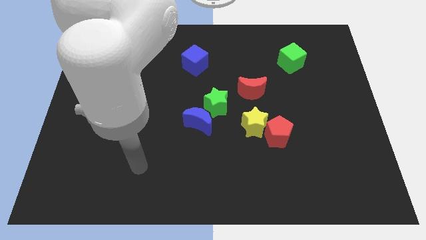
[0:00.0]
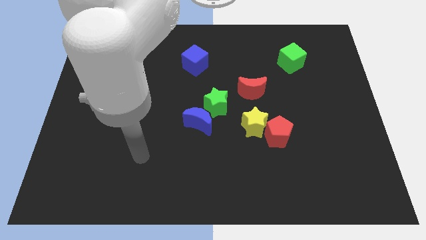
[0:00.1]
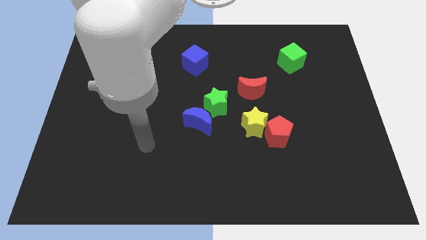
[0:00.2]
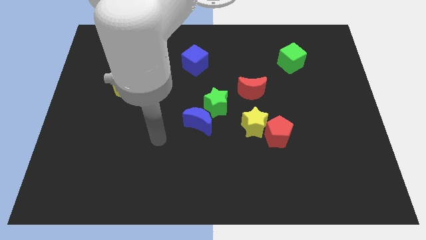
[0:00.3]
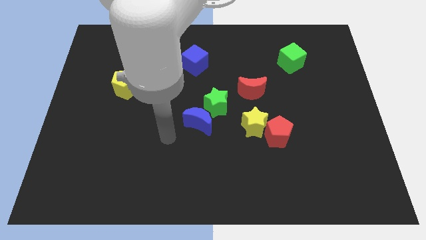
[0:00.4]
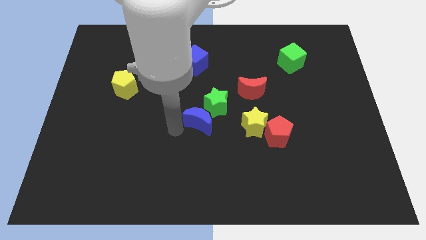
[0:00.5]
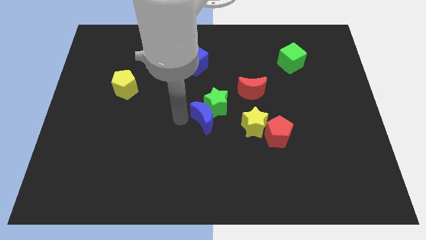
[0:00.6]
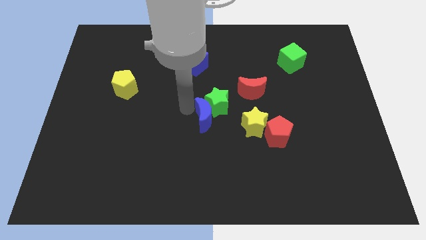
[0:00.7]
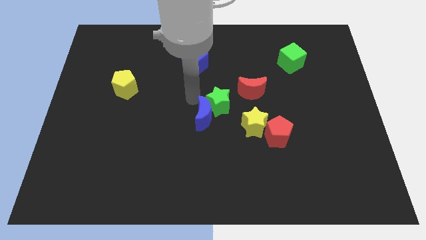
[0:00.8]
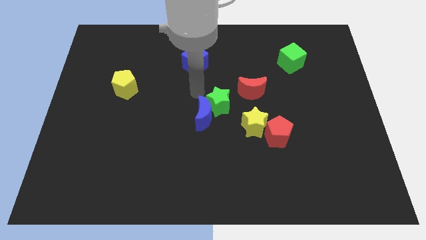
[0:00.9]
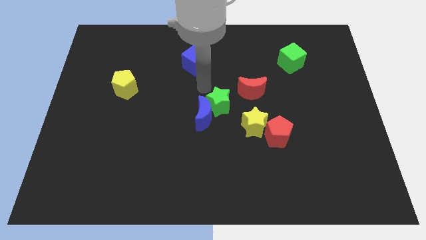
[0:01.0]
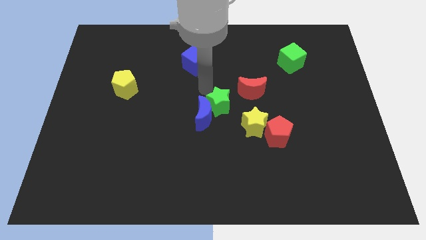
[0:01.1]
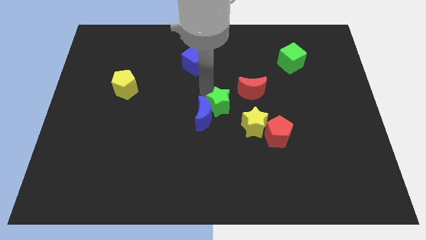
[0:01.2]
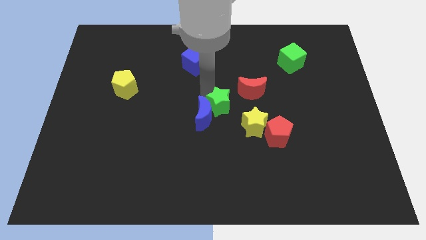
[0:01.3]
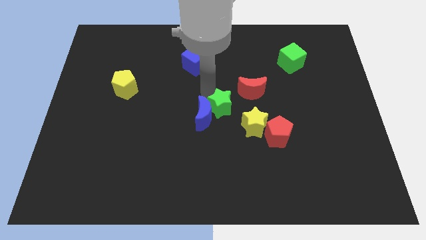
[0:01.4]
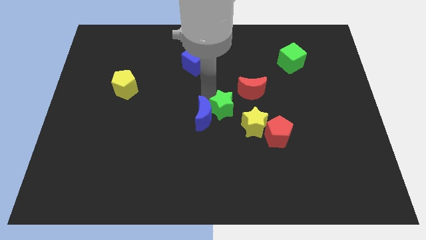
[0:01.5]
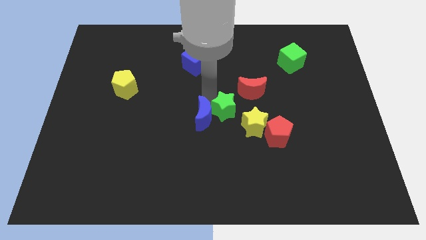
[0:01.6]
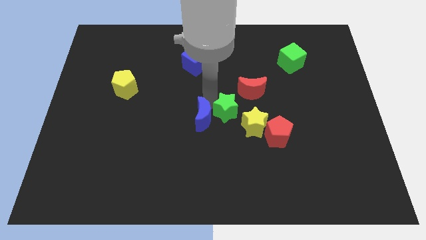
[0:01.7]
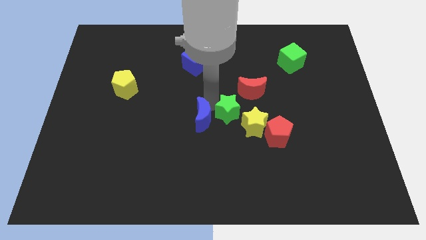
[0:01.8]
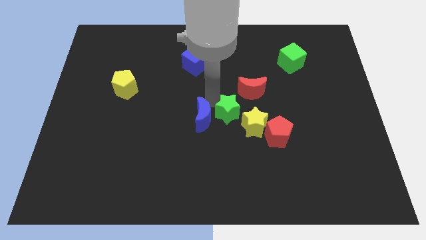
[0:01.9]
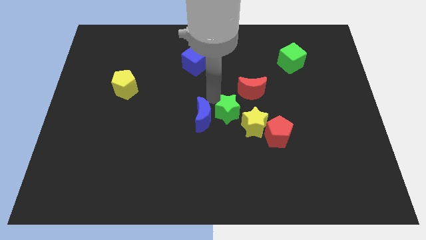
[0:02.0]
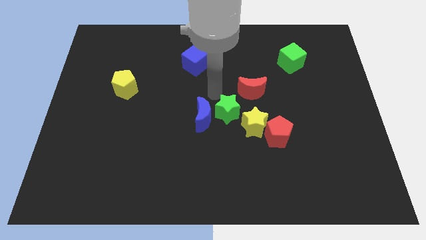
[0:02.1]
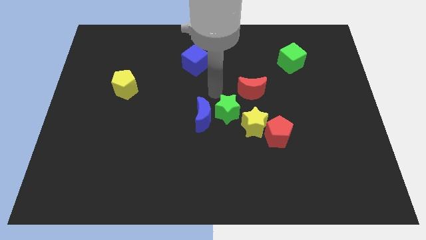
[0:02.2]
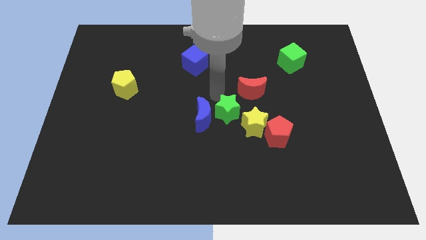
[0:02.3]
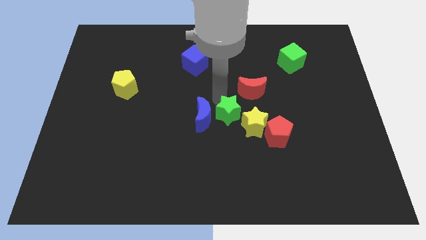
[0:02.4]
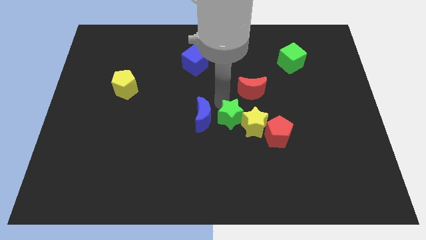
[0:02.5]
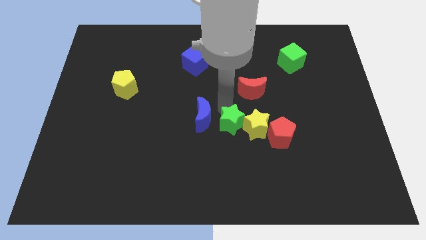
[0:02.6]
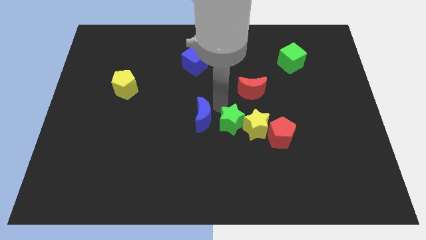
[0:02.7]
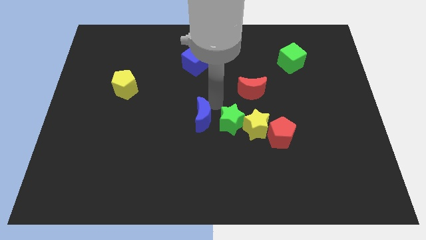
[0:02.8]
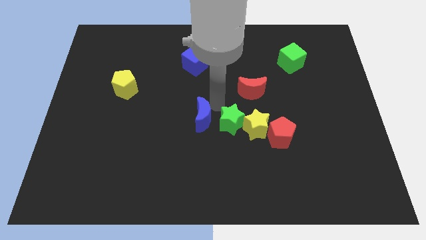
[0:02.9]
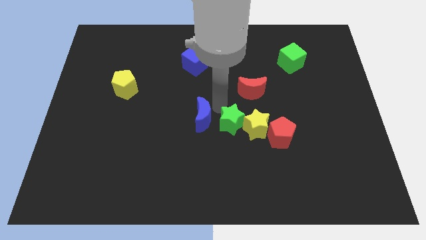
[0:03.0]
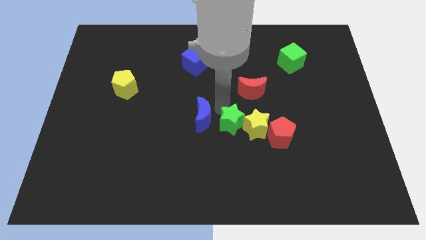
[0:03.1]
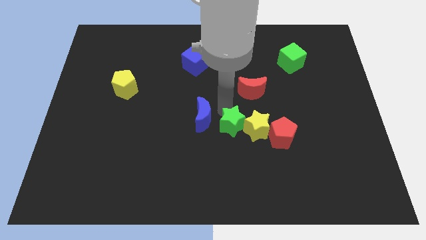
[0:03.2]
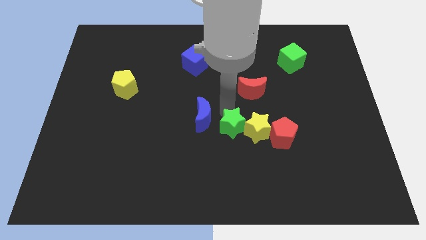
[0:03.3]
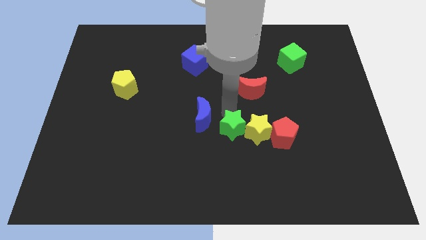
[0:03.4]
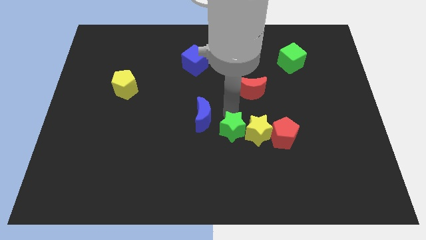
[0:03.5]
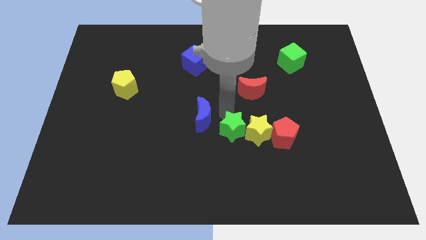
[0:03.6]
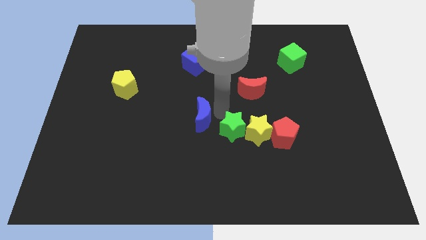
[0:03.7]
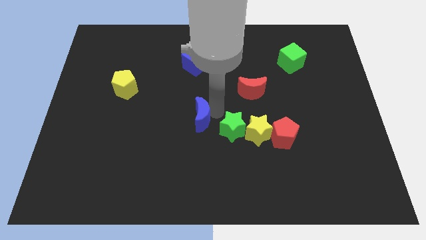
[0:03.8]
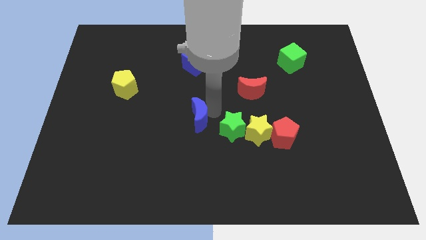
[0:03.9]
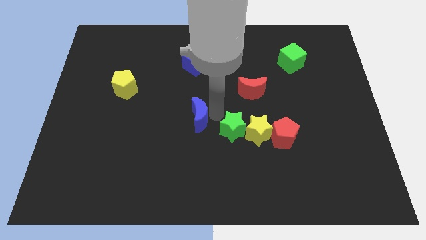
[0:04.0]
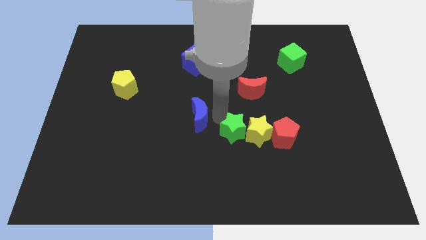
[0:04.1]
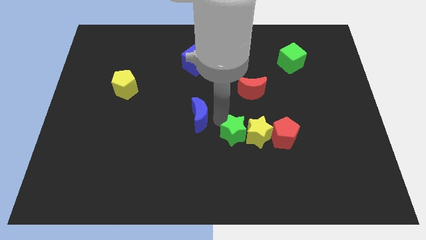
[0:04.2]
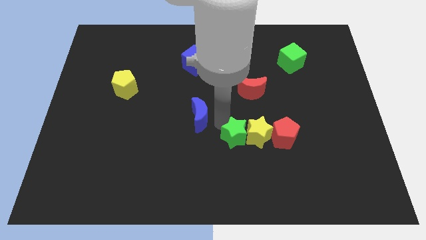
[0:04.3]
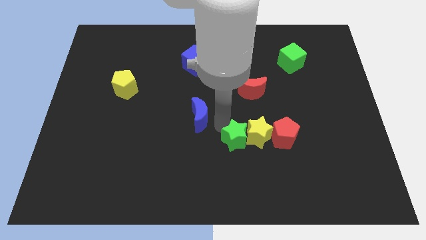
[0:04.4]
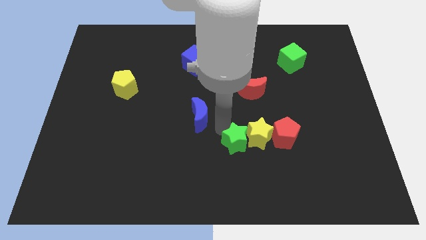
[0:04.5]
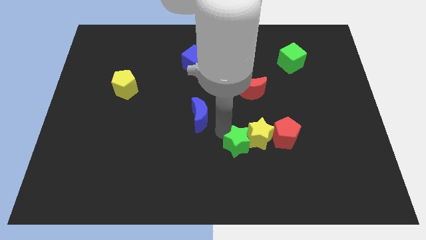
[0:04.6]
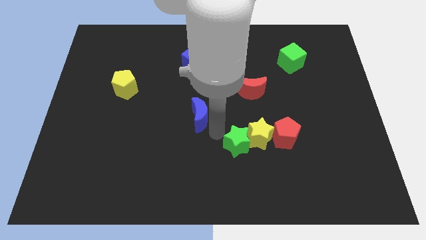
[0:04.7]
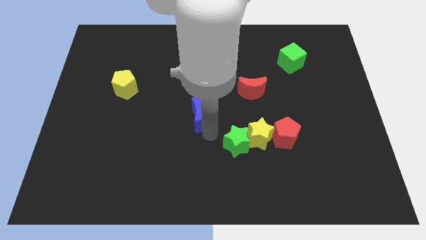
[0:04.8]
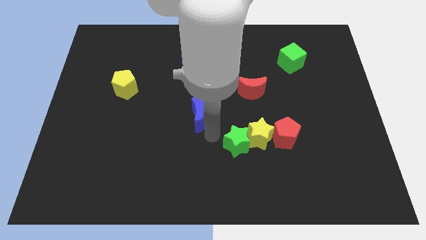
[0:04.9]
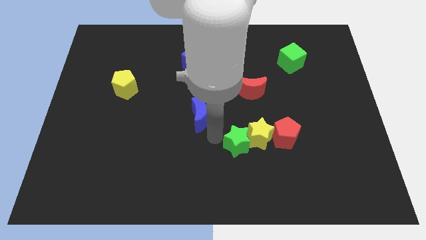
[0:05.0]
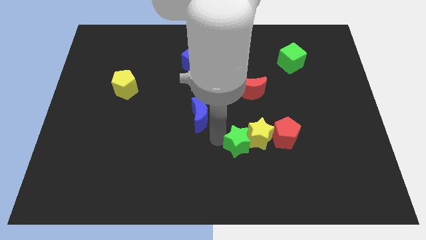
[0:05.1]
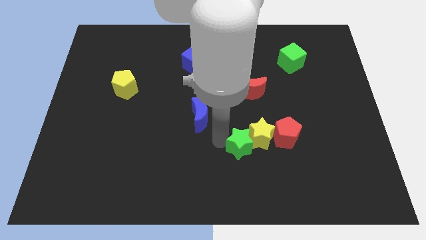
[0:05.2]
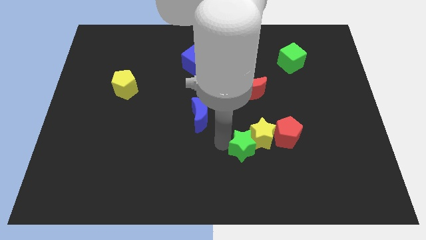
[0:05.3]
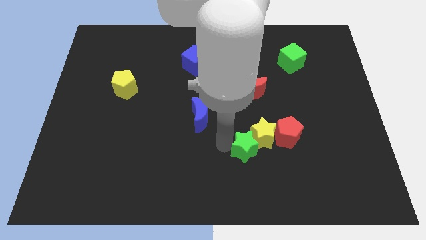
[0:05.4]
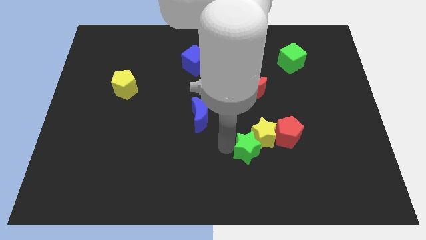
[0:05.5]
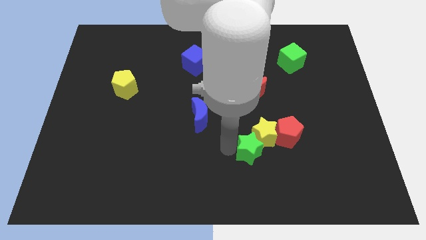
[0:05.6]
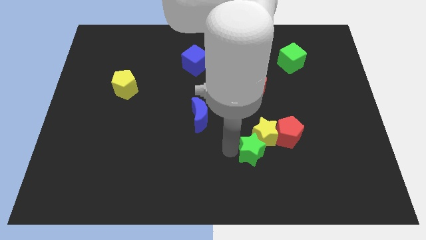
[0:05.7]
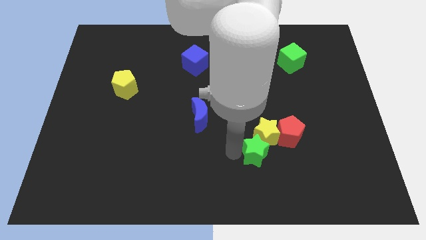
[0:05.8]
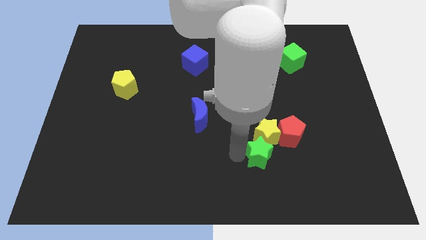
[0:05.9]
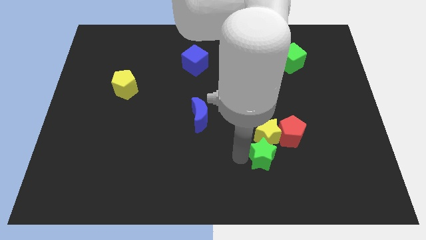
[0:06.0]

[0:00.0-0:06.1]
slide the green star to the bottom right of the yellow star

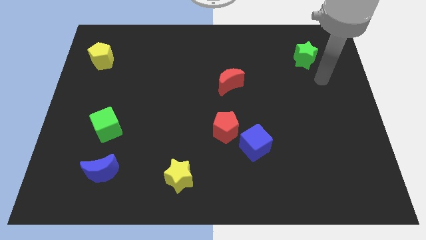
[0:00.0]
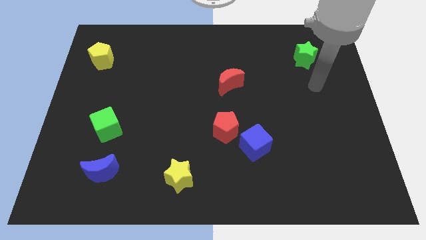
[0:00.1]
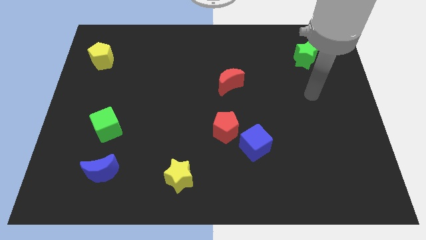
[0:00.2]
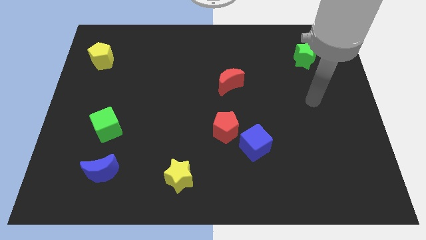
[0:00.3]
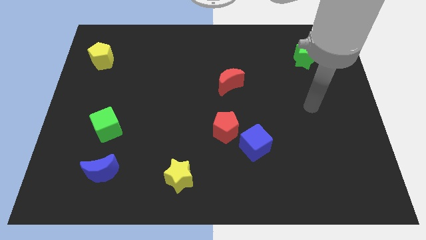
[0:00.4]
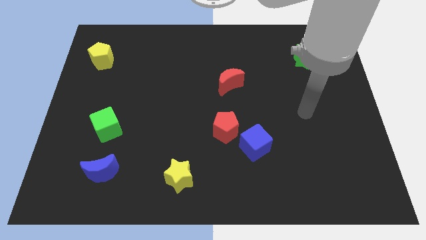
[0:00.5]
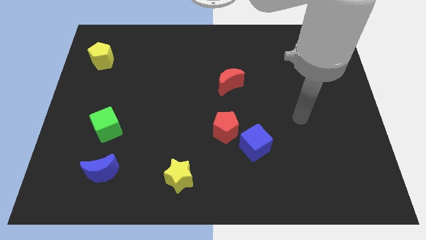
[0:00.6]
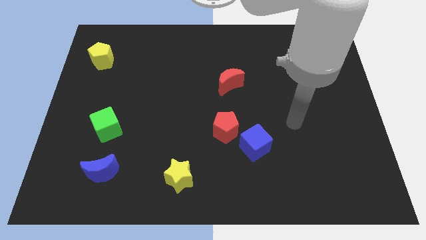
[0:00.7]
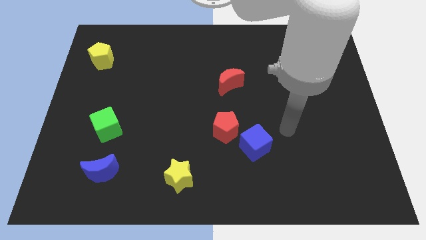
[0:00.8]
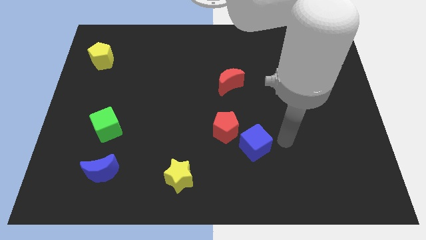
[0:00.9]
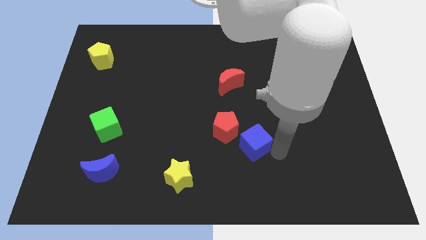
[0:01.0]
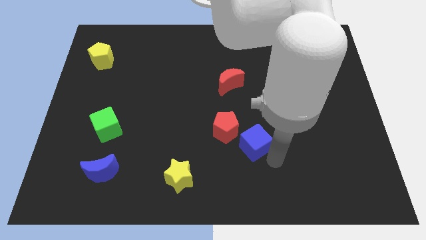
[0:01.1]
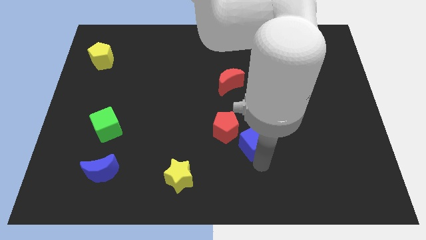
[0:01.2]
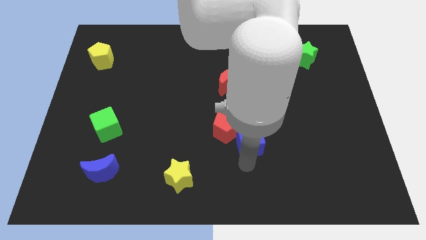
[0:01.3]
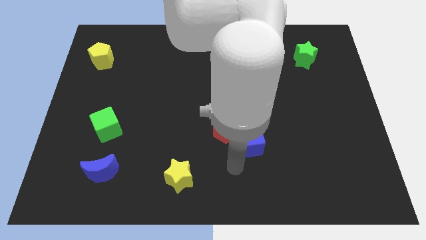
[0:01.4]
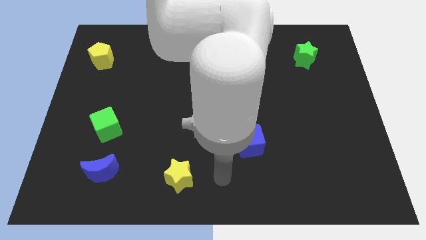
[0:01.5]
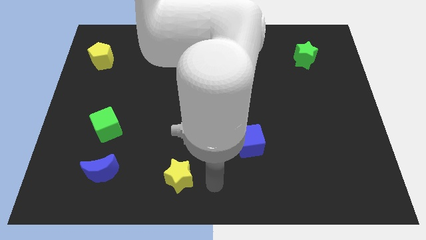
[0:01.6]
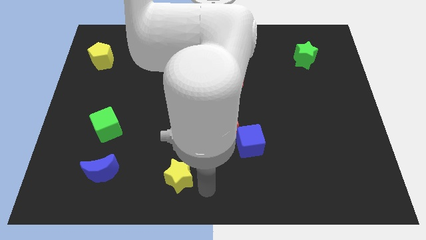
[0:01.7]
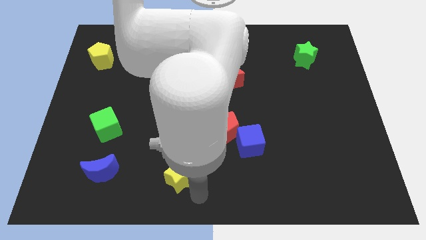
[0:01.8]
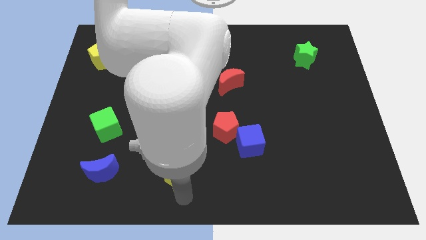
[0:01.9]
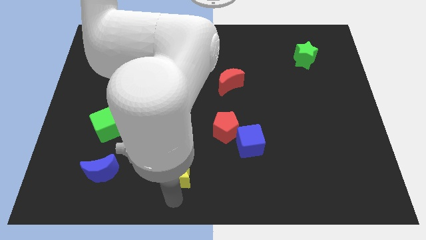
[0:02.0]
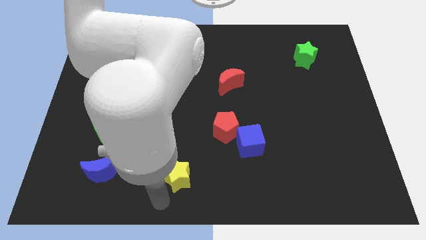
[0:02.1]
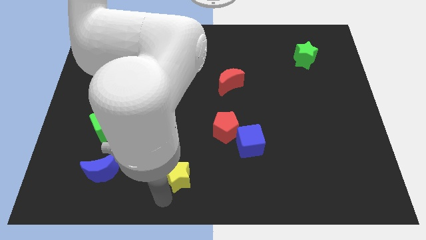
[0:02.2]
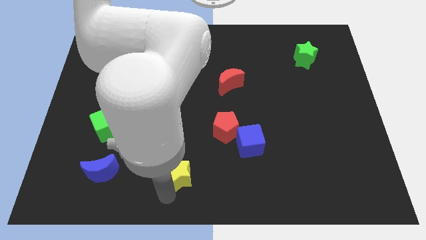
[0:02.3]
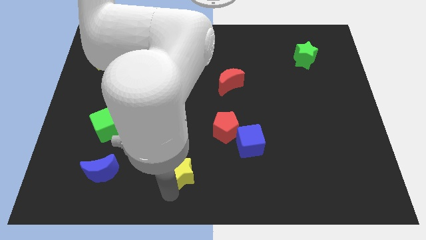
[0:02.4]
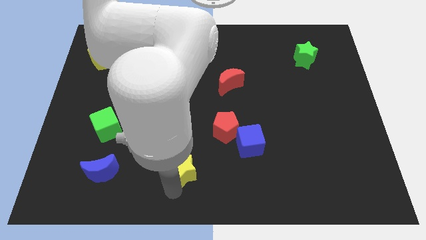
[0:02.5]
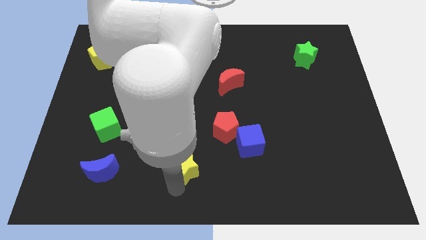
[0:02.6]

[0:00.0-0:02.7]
slide the yellow star to the bottom left side of the red pentagon
